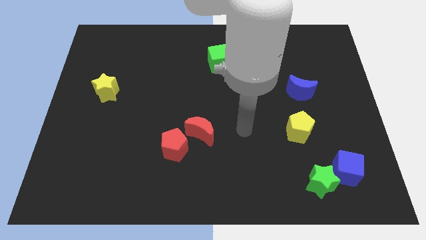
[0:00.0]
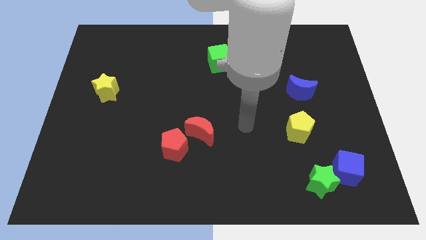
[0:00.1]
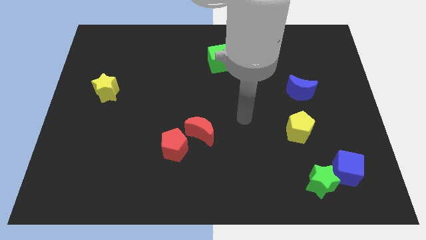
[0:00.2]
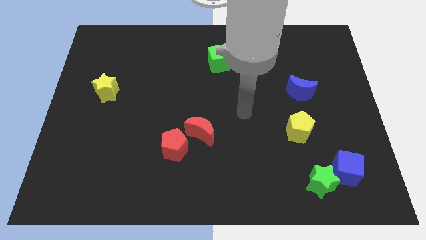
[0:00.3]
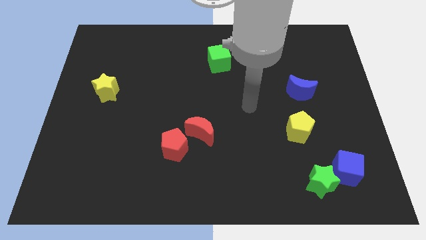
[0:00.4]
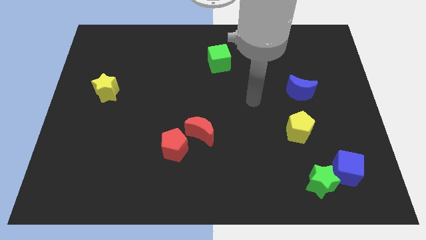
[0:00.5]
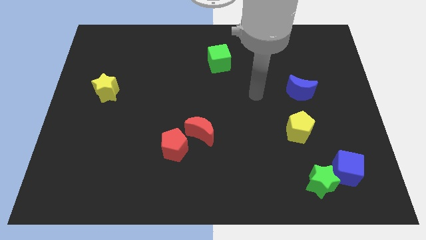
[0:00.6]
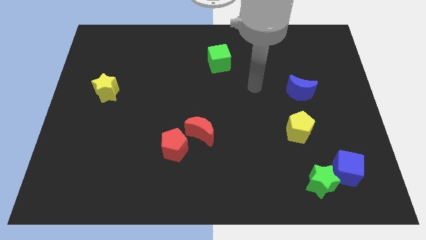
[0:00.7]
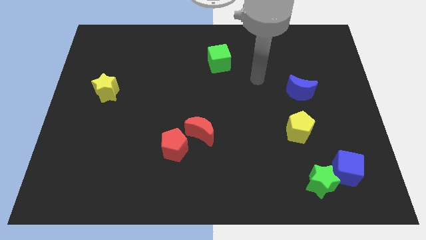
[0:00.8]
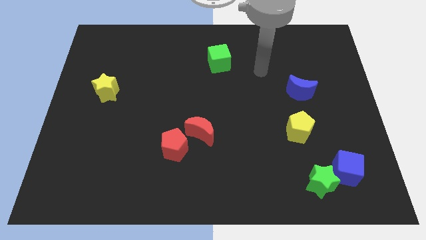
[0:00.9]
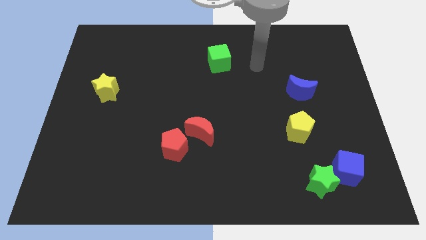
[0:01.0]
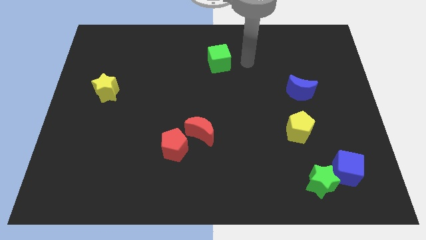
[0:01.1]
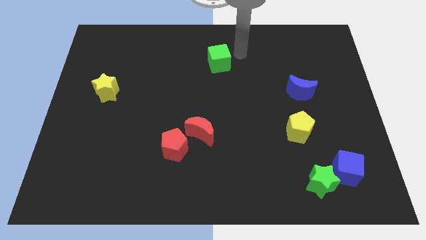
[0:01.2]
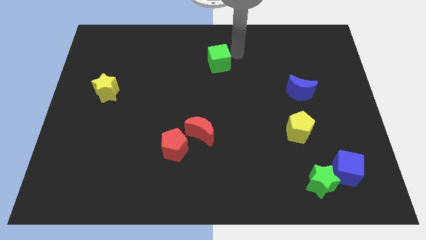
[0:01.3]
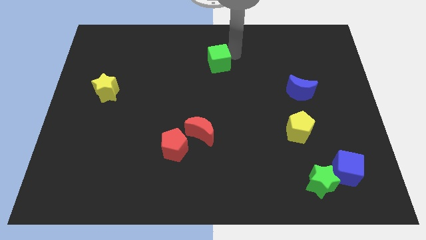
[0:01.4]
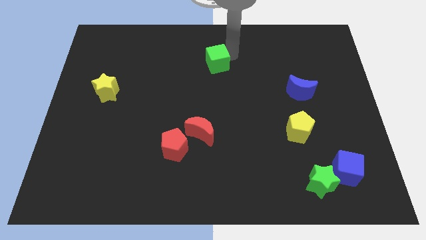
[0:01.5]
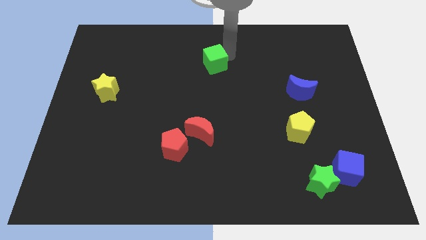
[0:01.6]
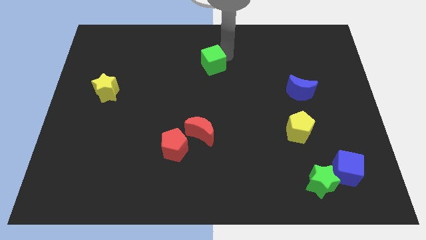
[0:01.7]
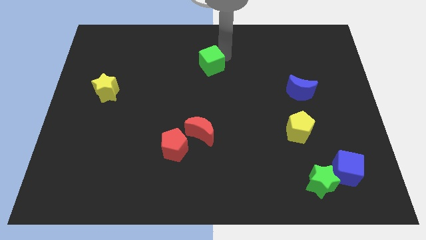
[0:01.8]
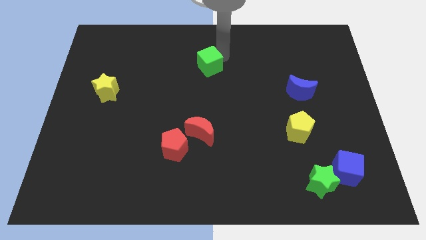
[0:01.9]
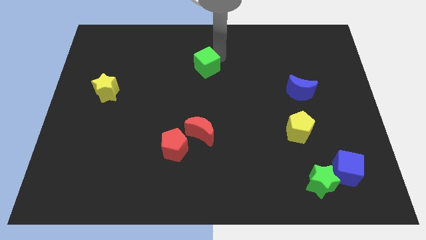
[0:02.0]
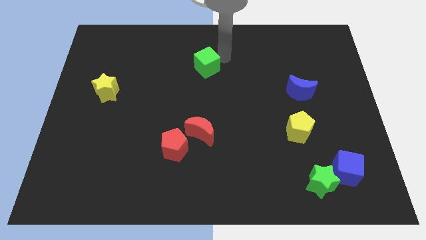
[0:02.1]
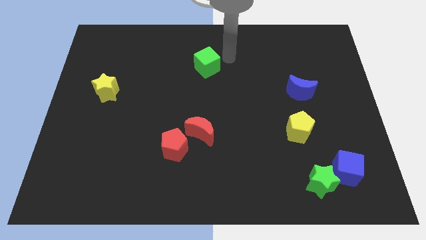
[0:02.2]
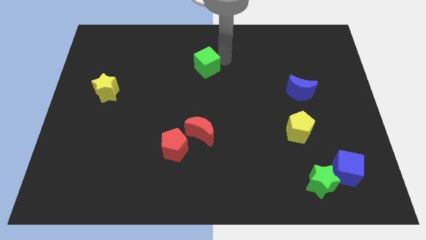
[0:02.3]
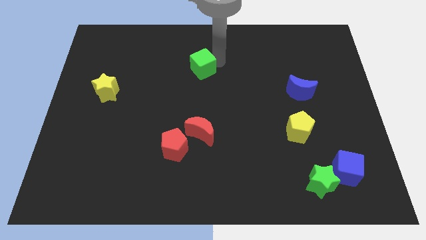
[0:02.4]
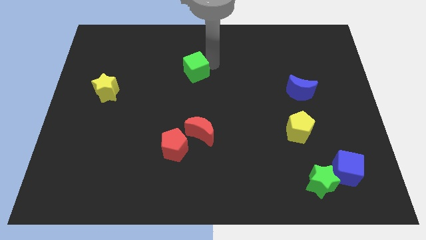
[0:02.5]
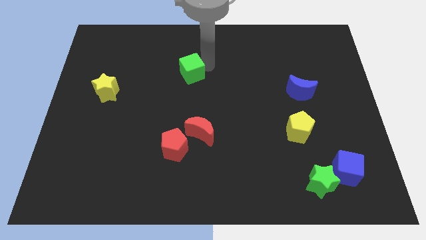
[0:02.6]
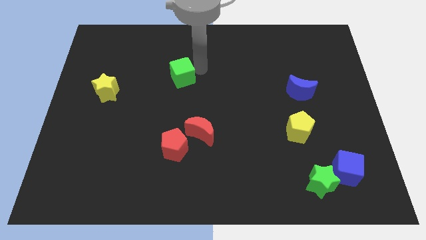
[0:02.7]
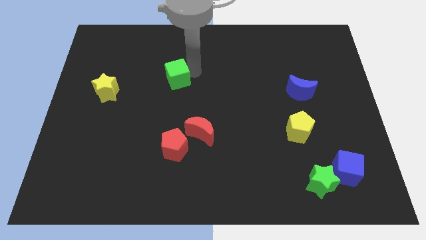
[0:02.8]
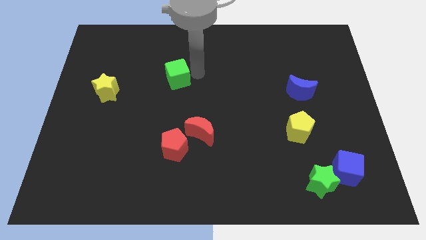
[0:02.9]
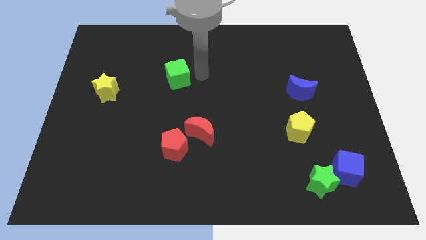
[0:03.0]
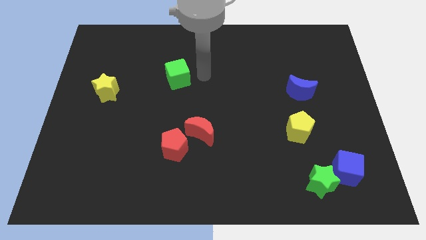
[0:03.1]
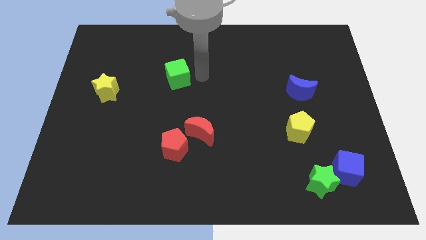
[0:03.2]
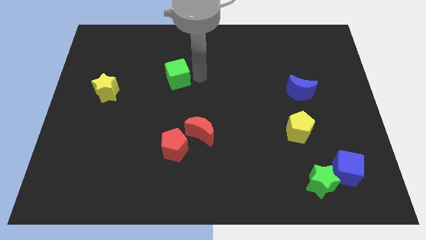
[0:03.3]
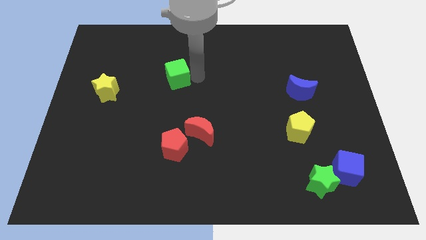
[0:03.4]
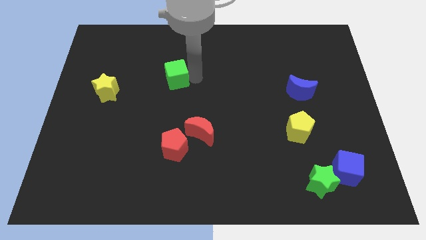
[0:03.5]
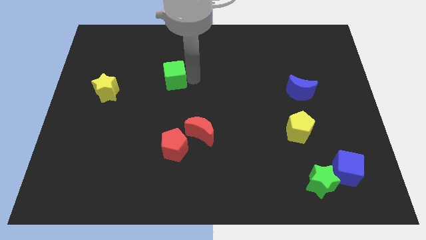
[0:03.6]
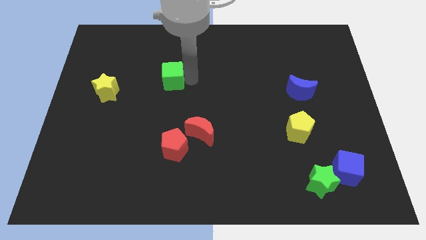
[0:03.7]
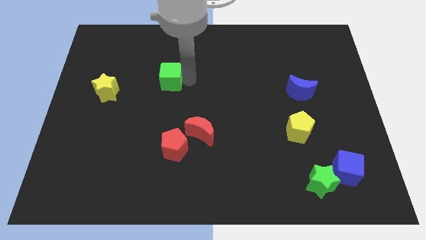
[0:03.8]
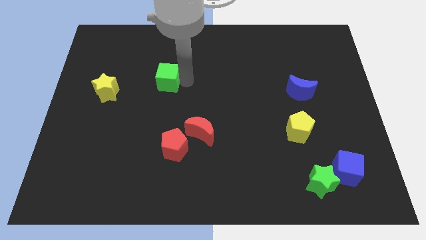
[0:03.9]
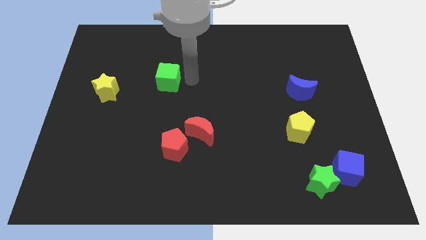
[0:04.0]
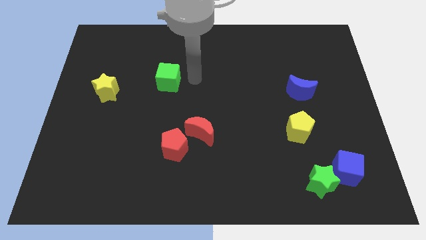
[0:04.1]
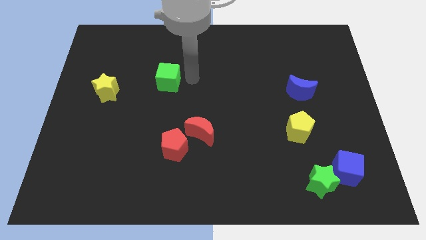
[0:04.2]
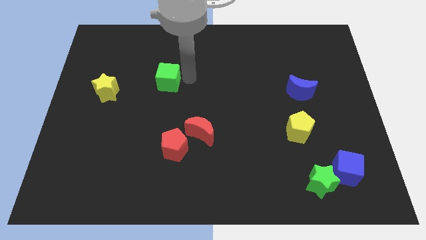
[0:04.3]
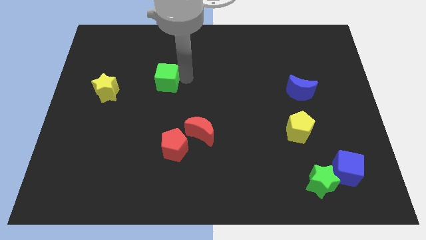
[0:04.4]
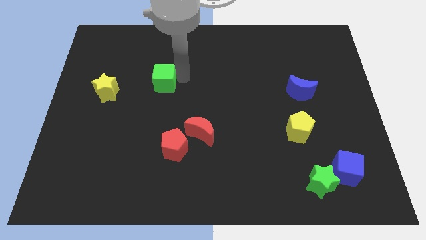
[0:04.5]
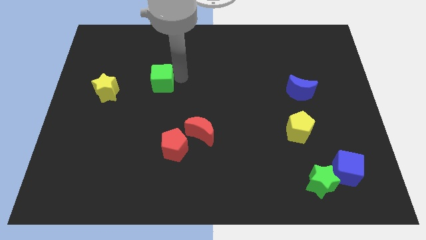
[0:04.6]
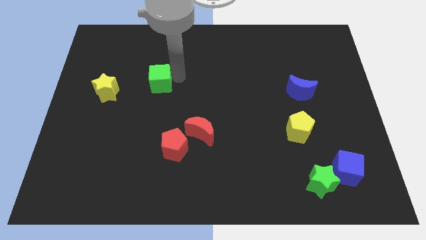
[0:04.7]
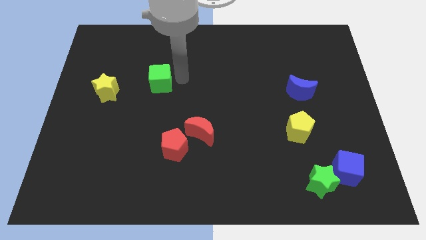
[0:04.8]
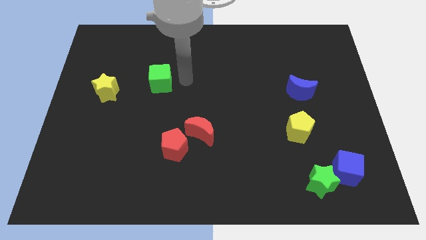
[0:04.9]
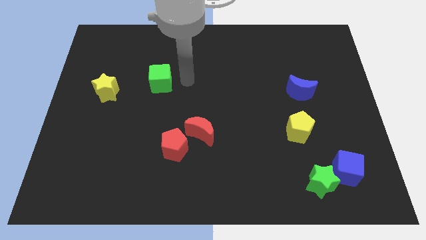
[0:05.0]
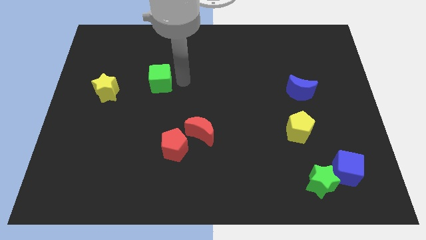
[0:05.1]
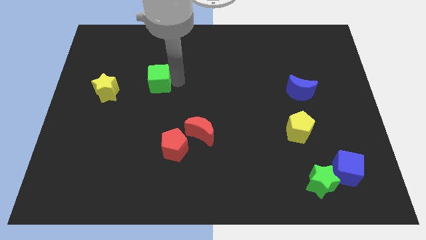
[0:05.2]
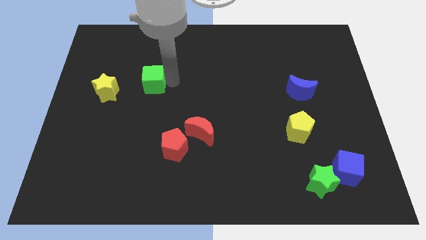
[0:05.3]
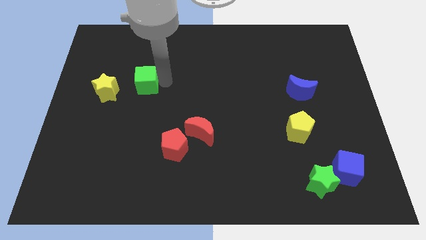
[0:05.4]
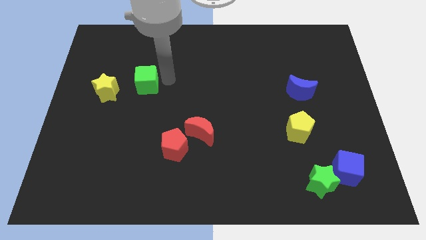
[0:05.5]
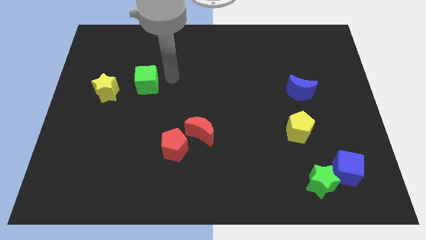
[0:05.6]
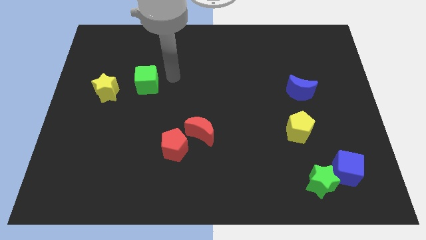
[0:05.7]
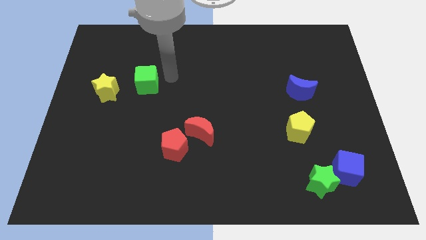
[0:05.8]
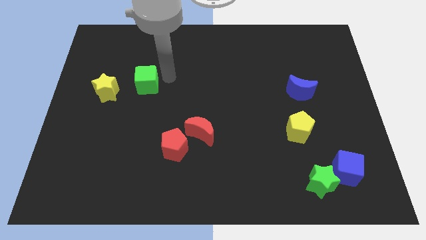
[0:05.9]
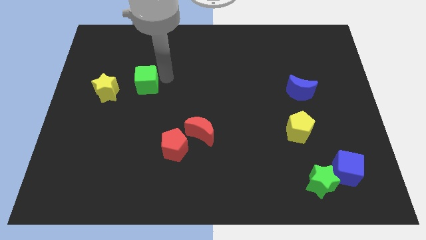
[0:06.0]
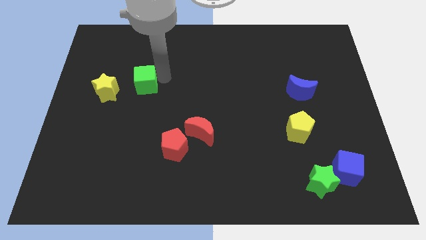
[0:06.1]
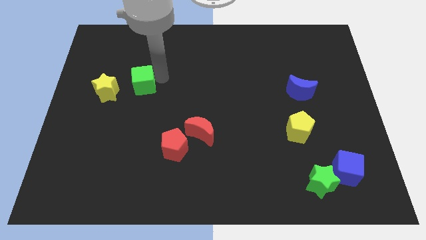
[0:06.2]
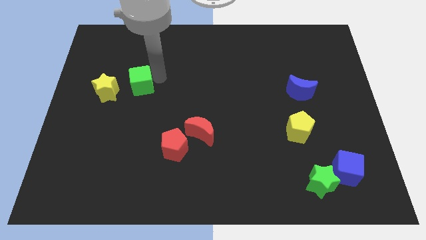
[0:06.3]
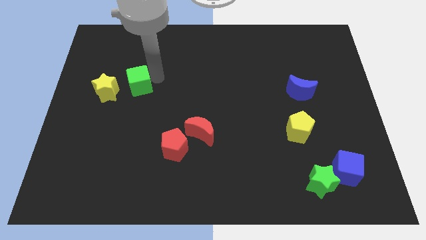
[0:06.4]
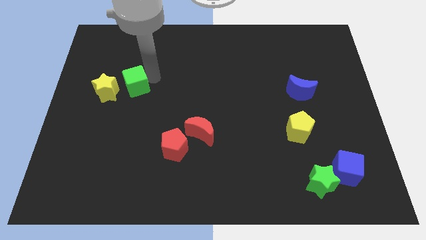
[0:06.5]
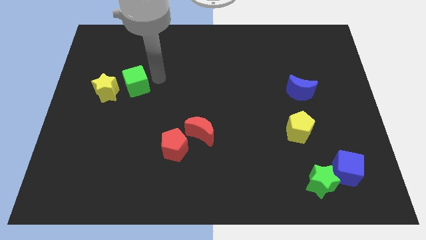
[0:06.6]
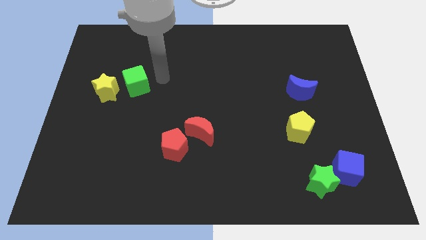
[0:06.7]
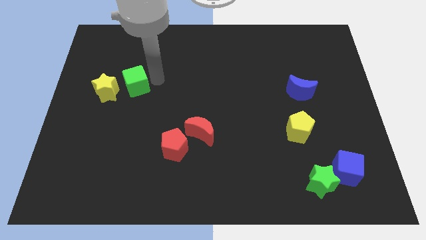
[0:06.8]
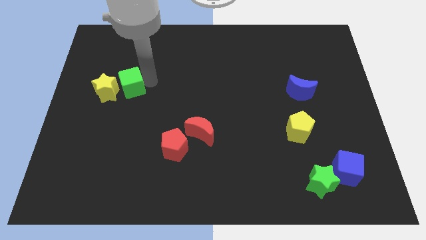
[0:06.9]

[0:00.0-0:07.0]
put the green cube towards the yellow star

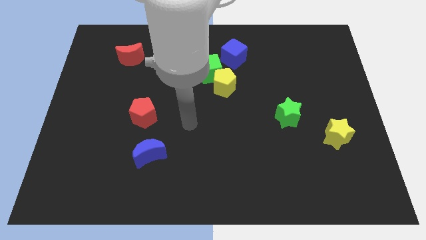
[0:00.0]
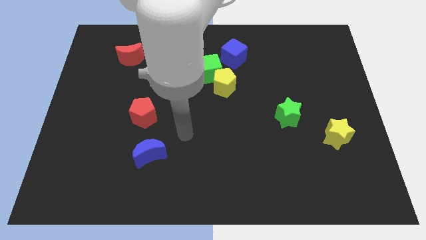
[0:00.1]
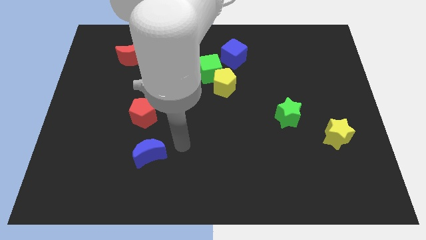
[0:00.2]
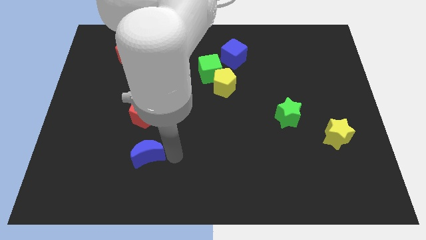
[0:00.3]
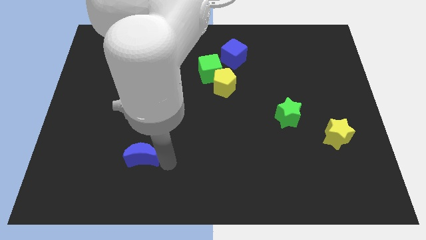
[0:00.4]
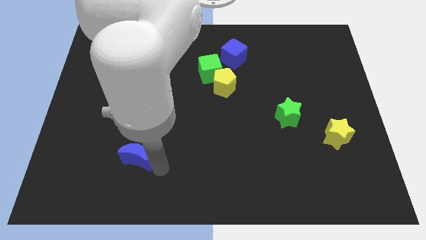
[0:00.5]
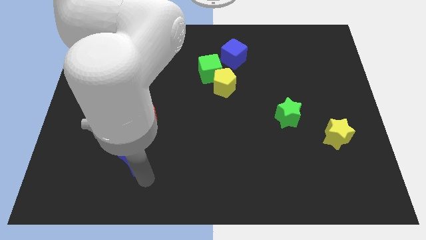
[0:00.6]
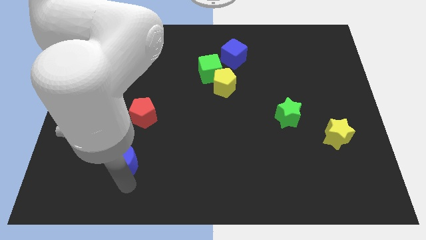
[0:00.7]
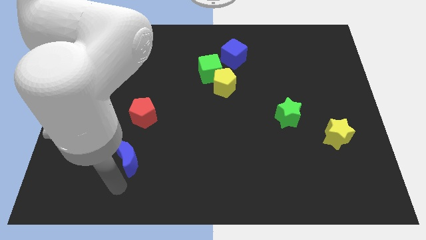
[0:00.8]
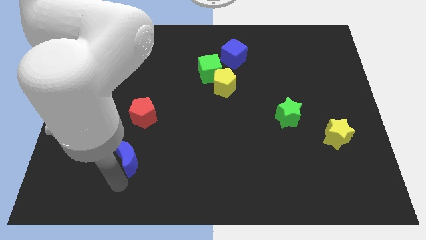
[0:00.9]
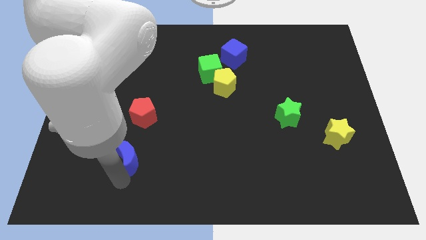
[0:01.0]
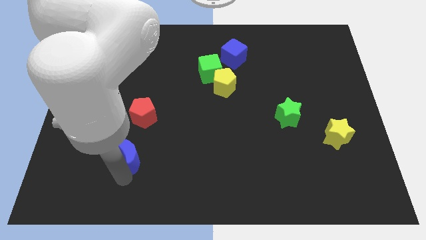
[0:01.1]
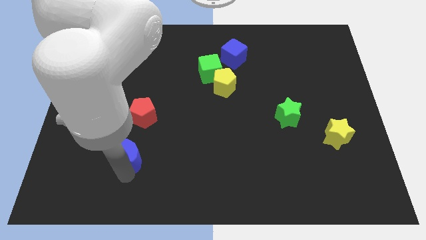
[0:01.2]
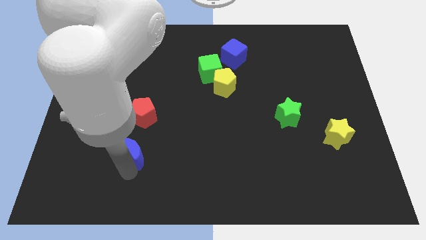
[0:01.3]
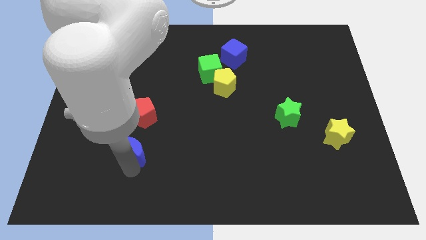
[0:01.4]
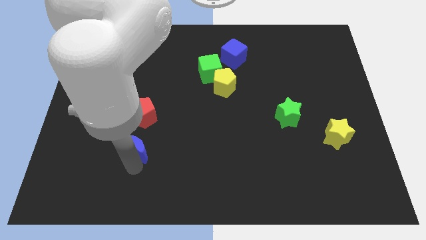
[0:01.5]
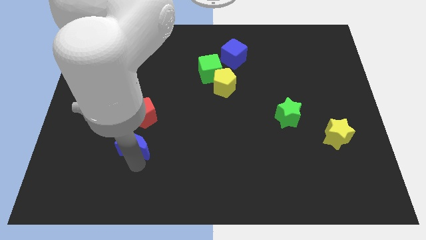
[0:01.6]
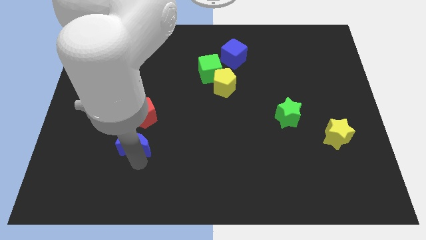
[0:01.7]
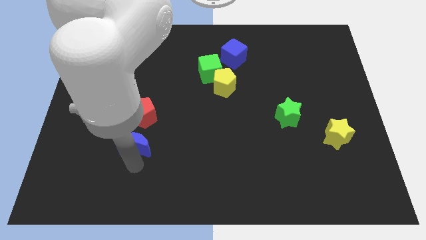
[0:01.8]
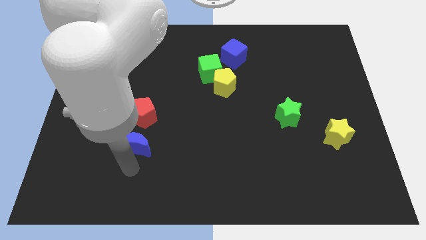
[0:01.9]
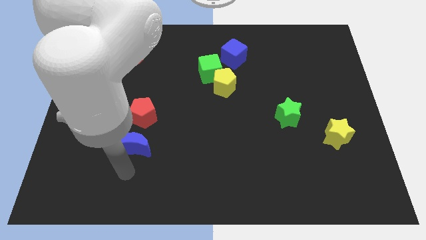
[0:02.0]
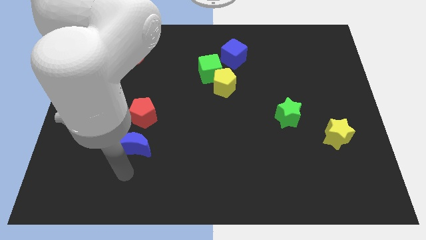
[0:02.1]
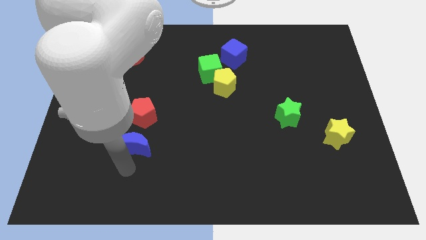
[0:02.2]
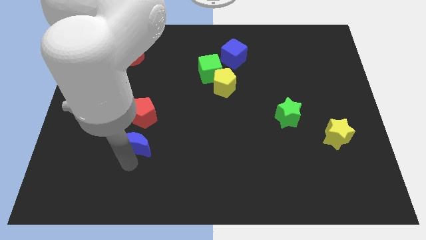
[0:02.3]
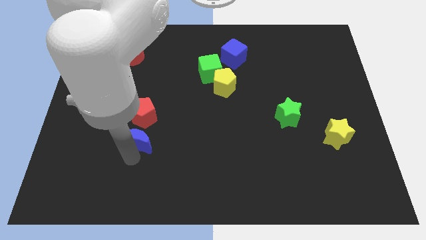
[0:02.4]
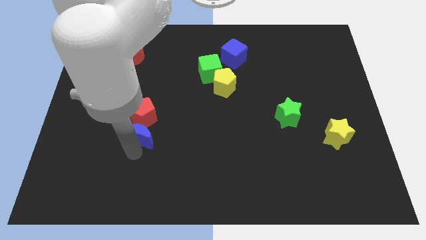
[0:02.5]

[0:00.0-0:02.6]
put the blue moon towards the red pentagon
